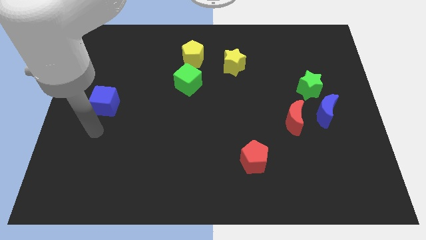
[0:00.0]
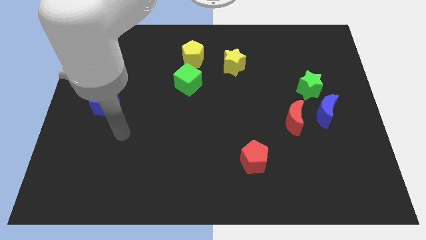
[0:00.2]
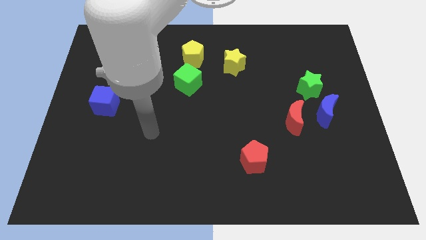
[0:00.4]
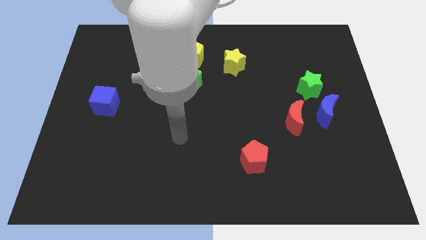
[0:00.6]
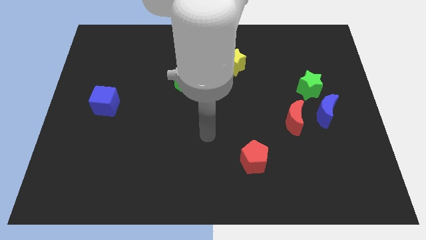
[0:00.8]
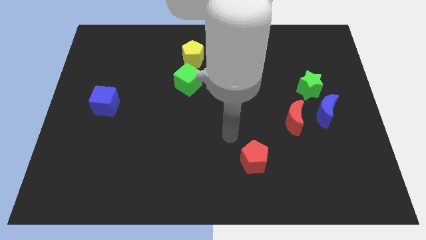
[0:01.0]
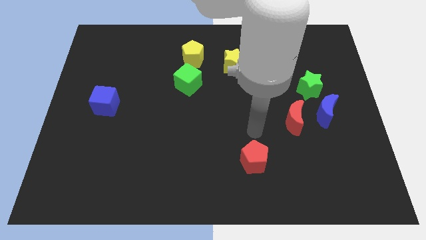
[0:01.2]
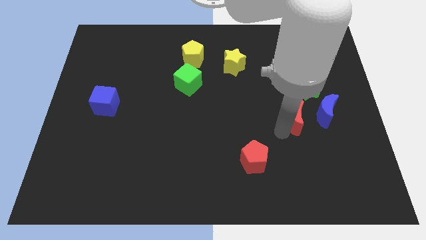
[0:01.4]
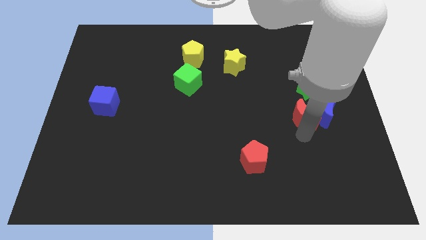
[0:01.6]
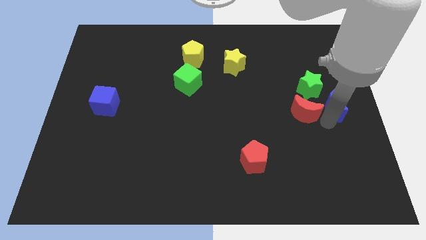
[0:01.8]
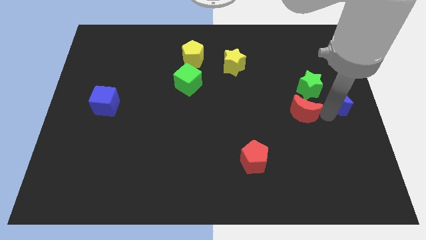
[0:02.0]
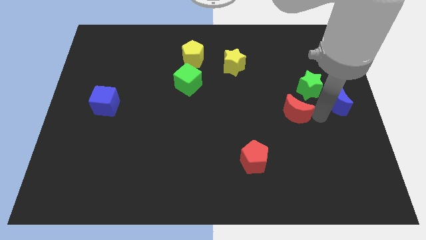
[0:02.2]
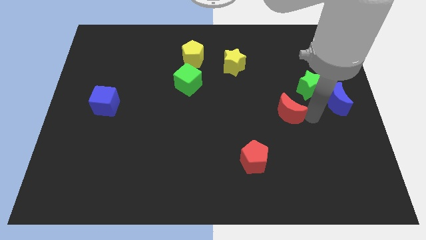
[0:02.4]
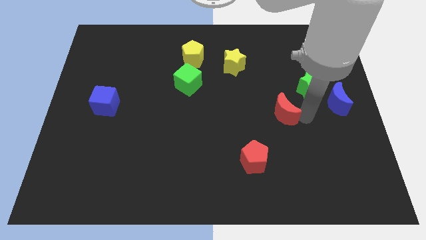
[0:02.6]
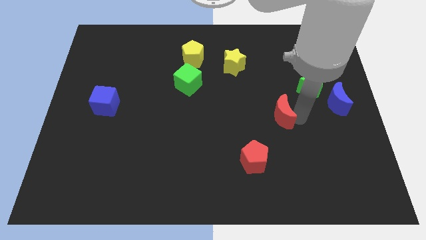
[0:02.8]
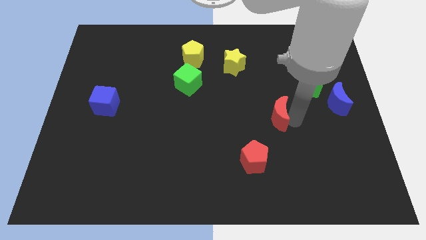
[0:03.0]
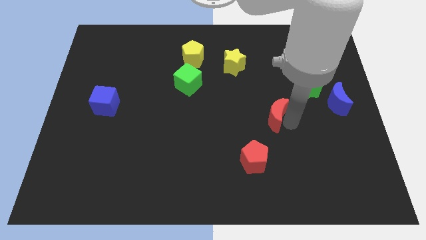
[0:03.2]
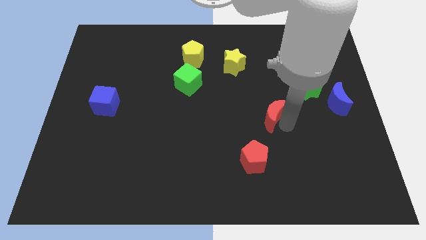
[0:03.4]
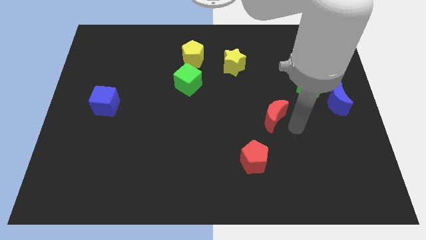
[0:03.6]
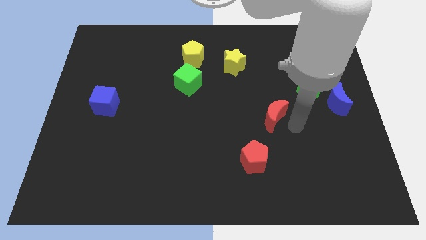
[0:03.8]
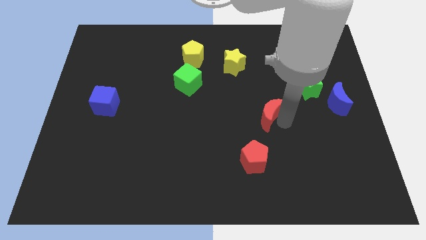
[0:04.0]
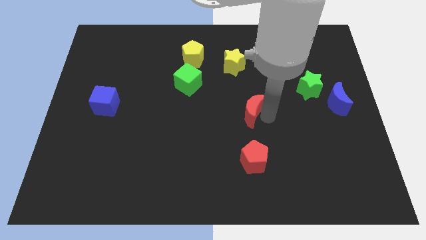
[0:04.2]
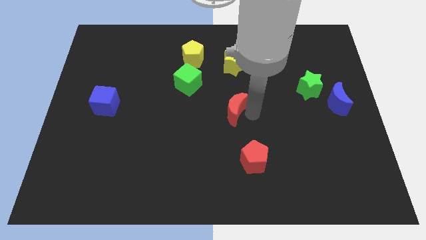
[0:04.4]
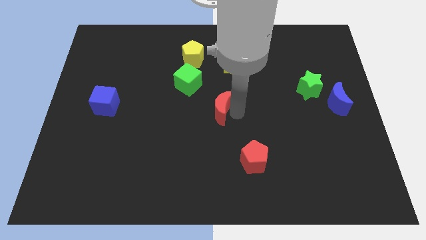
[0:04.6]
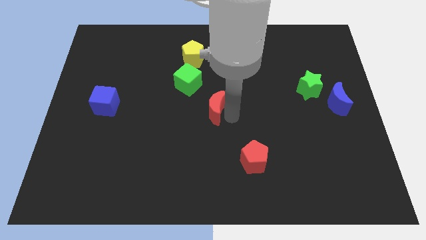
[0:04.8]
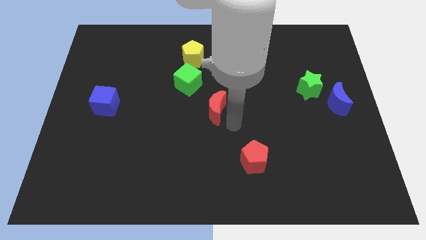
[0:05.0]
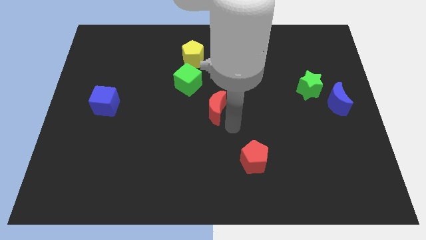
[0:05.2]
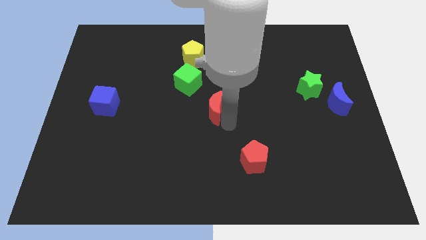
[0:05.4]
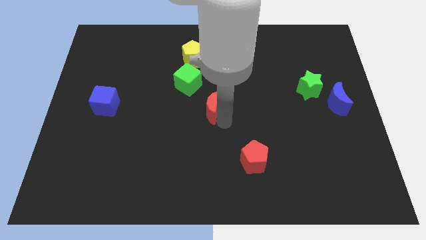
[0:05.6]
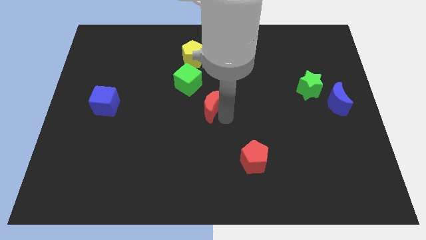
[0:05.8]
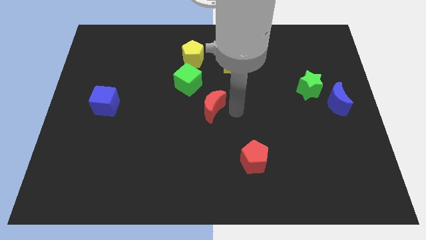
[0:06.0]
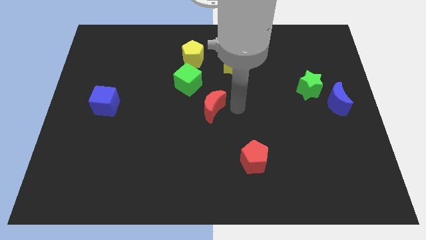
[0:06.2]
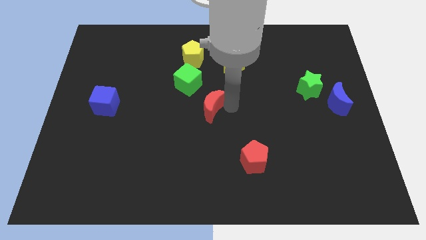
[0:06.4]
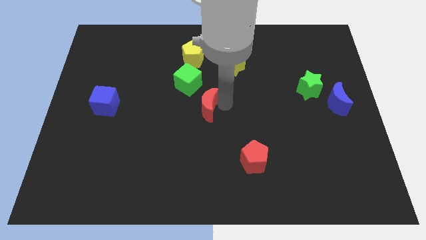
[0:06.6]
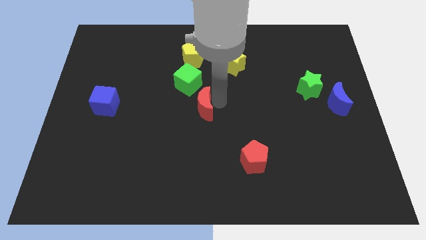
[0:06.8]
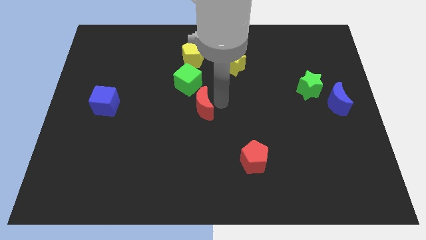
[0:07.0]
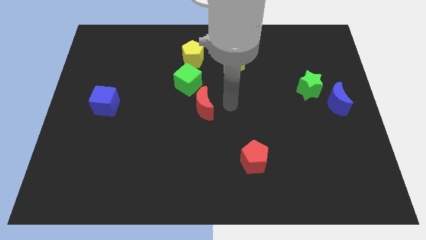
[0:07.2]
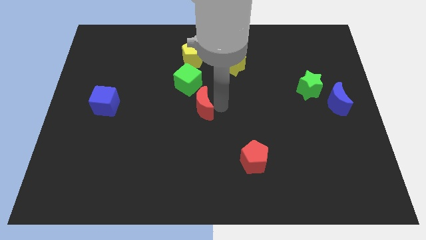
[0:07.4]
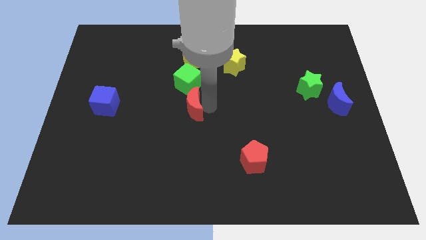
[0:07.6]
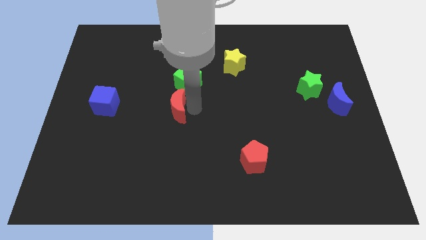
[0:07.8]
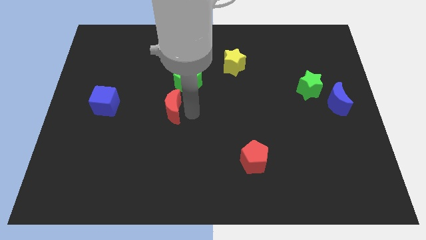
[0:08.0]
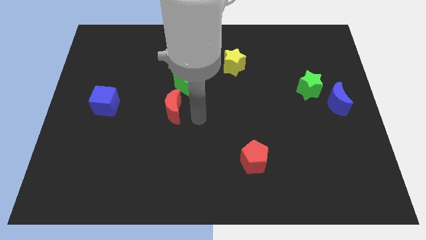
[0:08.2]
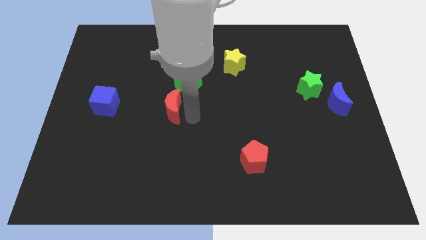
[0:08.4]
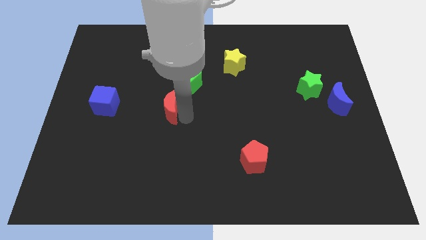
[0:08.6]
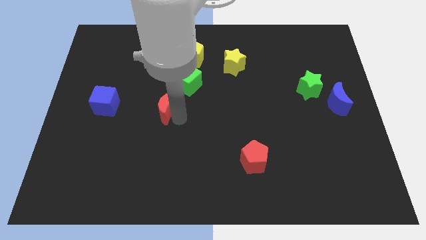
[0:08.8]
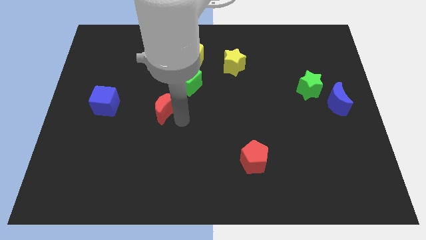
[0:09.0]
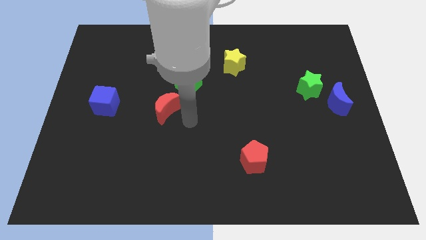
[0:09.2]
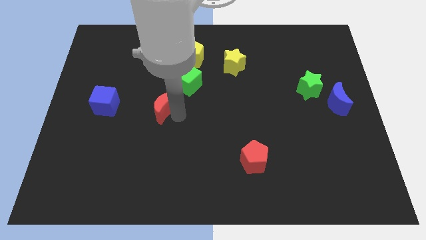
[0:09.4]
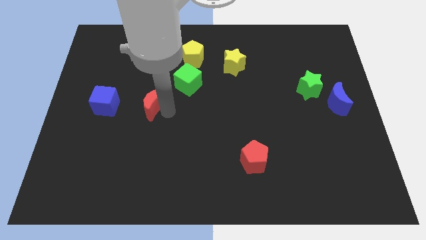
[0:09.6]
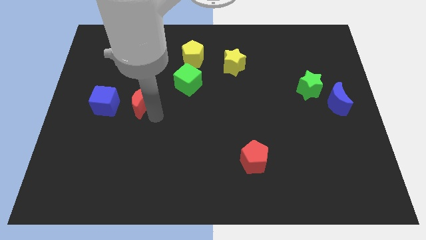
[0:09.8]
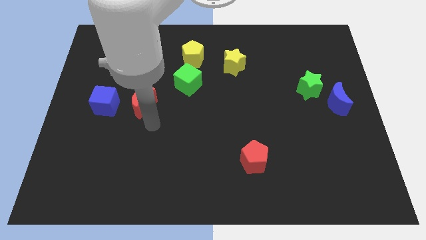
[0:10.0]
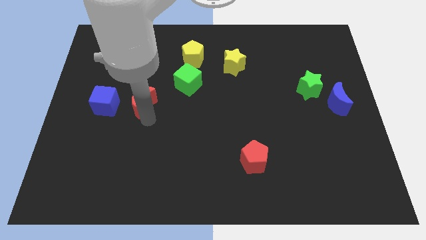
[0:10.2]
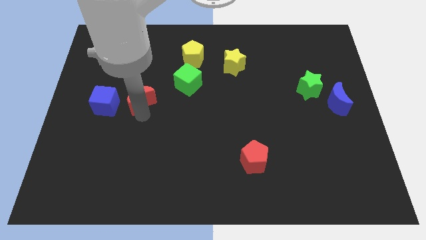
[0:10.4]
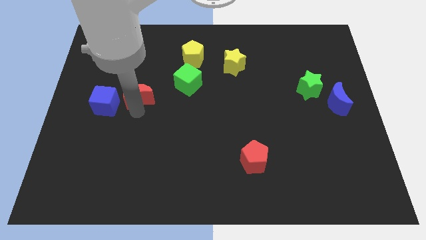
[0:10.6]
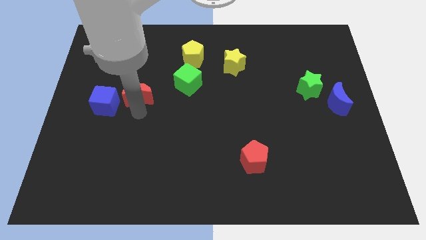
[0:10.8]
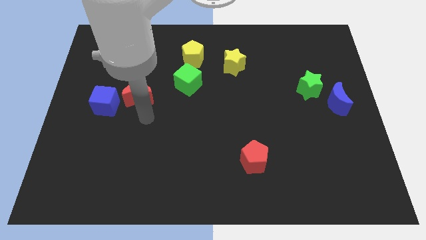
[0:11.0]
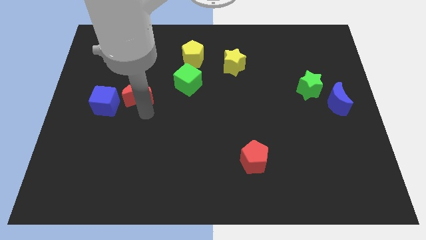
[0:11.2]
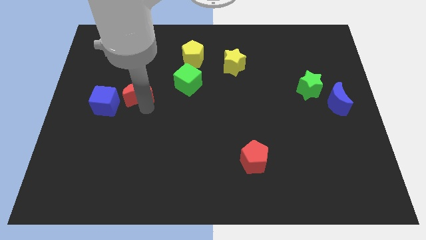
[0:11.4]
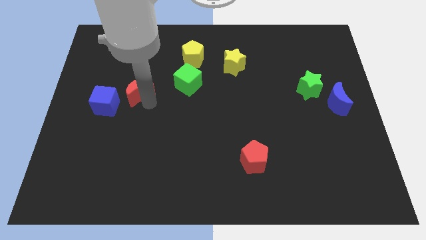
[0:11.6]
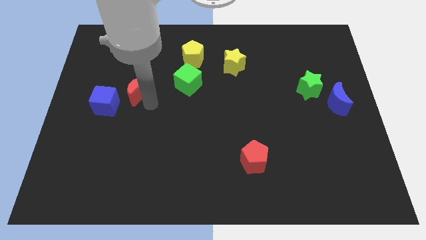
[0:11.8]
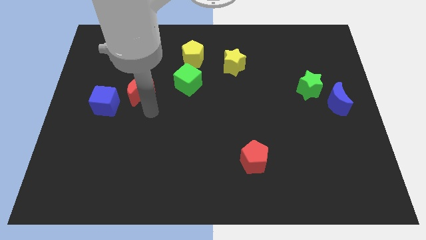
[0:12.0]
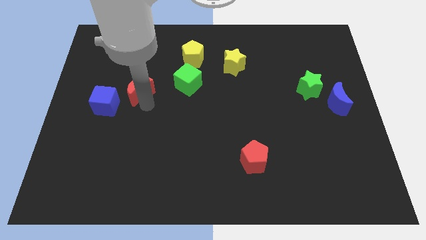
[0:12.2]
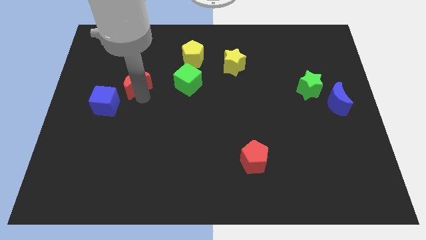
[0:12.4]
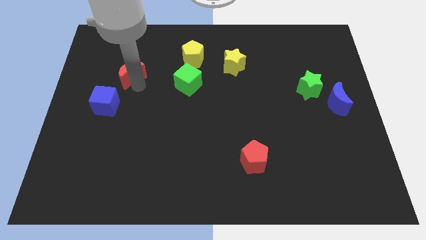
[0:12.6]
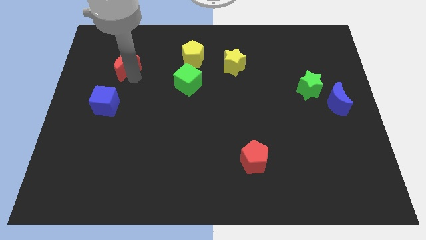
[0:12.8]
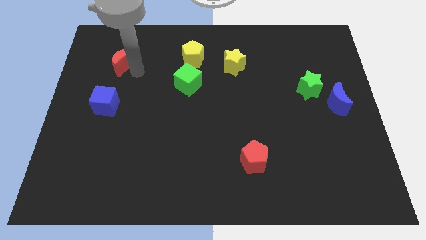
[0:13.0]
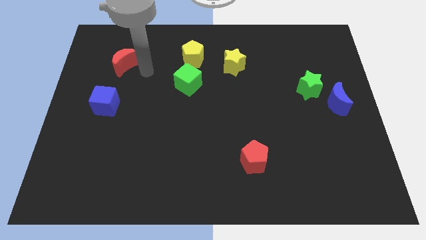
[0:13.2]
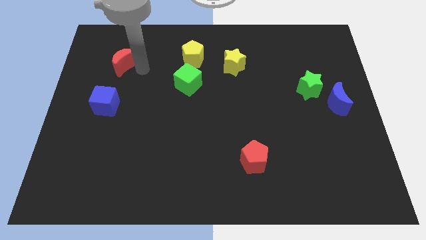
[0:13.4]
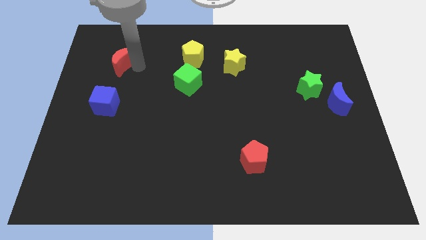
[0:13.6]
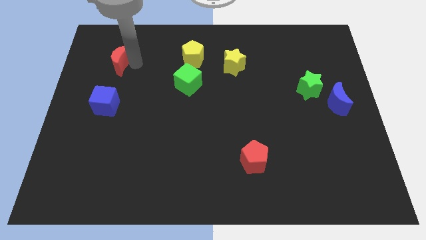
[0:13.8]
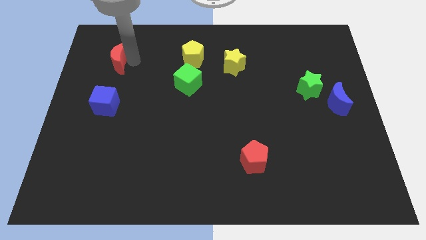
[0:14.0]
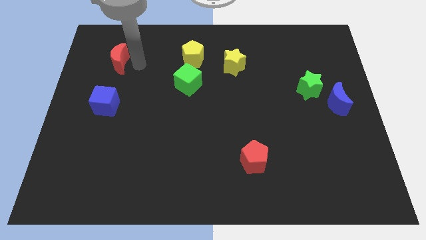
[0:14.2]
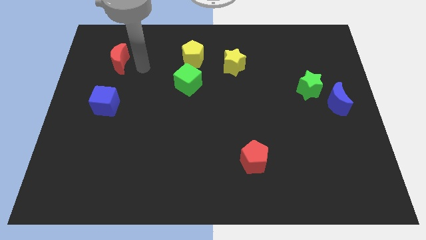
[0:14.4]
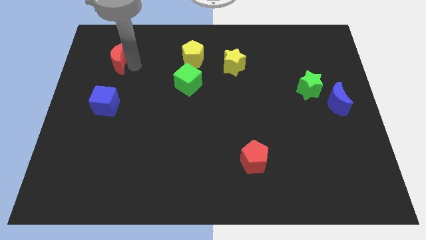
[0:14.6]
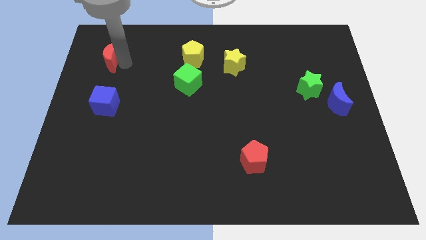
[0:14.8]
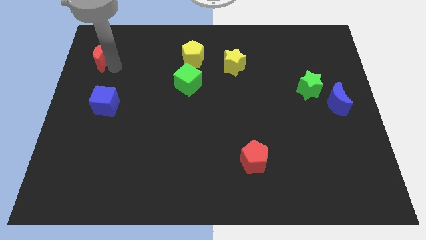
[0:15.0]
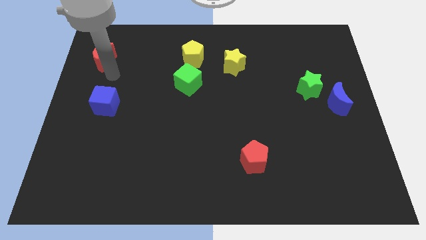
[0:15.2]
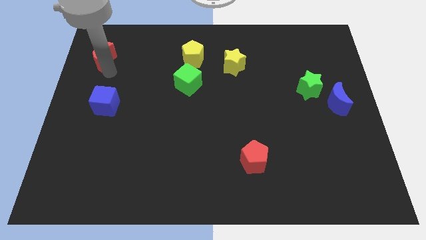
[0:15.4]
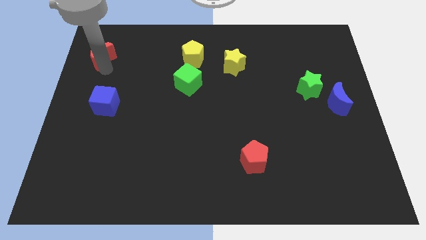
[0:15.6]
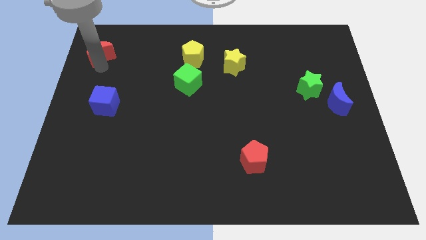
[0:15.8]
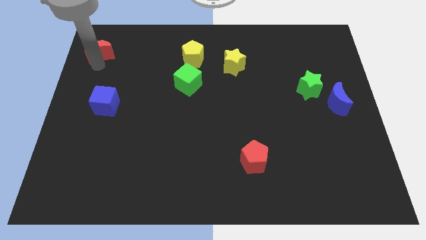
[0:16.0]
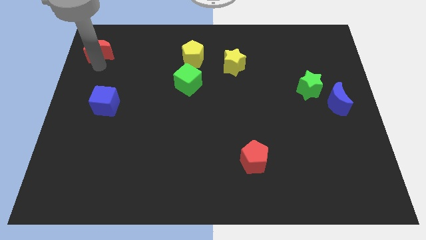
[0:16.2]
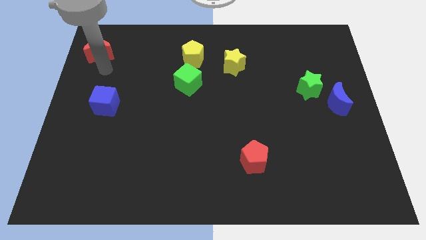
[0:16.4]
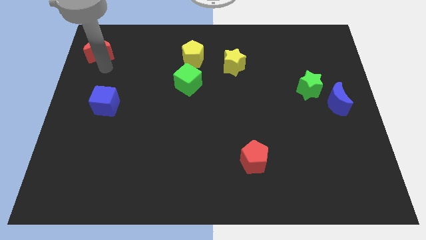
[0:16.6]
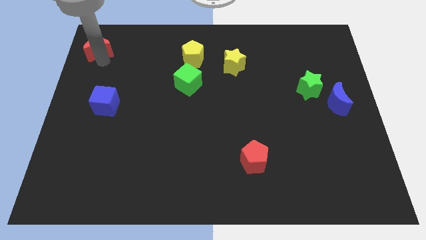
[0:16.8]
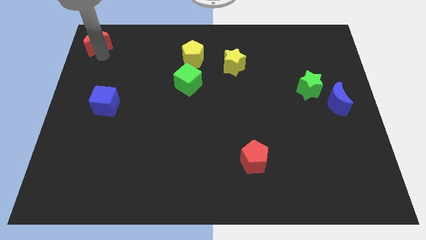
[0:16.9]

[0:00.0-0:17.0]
push the red moon to the top left
